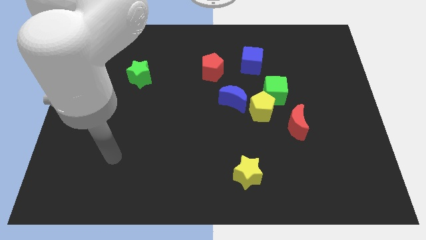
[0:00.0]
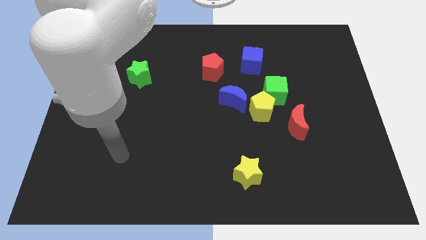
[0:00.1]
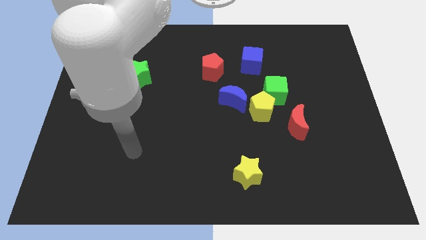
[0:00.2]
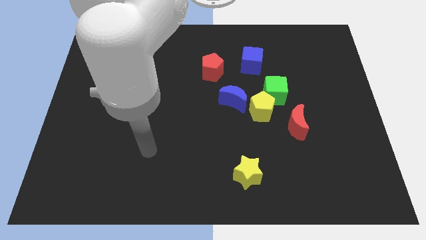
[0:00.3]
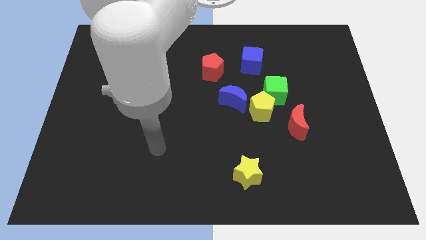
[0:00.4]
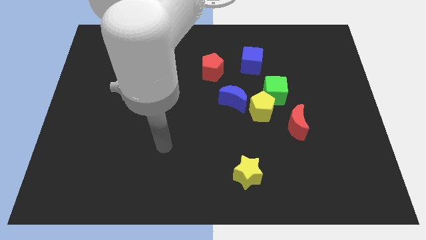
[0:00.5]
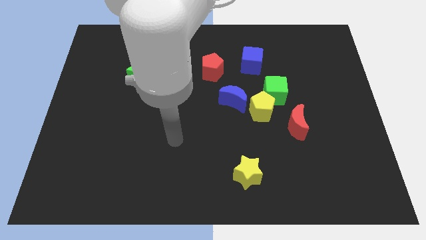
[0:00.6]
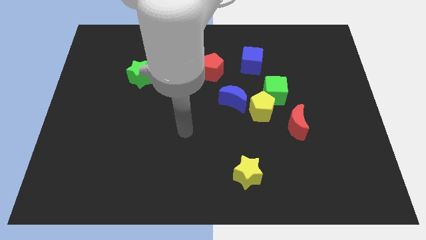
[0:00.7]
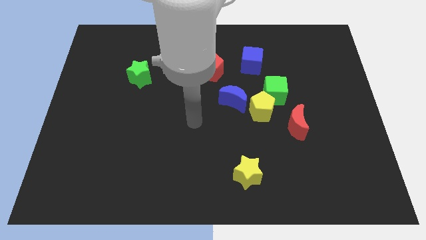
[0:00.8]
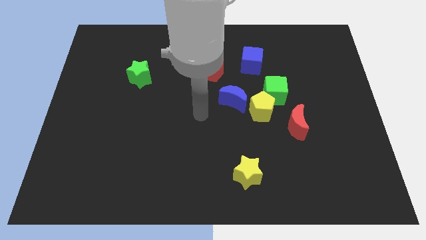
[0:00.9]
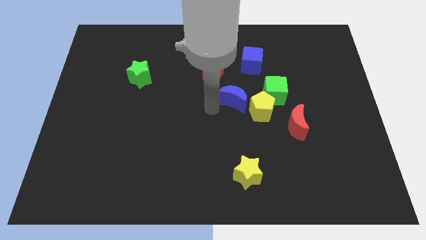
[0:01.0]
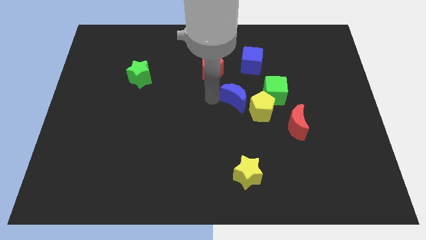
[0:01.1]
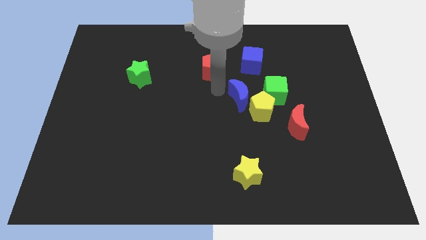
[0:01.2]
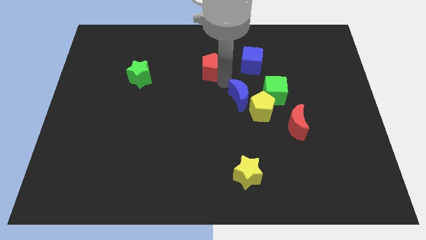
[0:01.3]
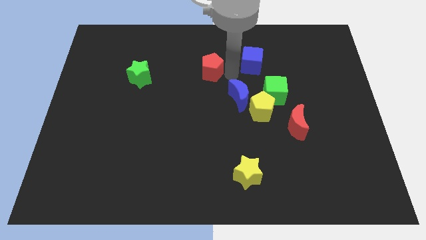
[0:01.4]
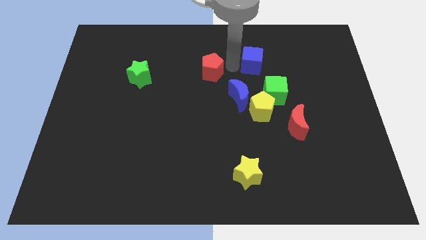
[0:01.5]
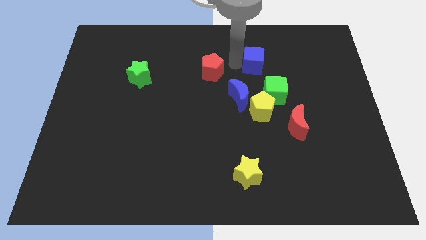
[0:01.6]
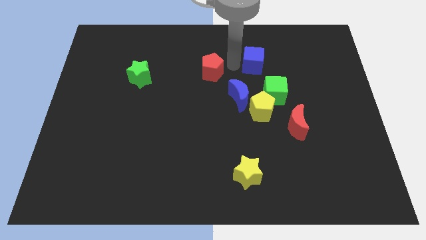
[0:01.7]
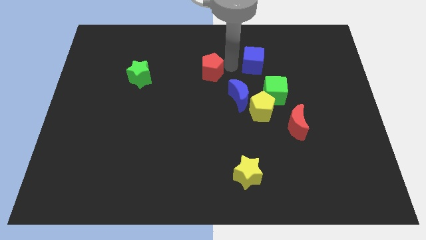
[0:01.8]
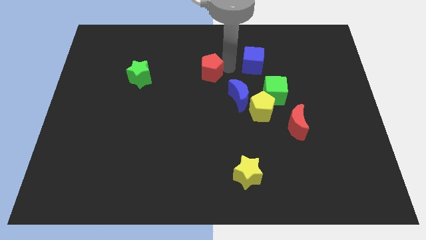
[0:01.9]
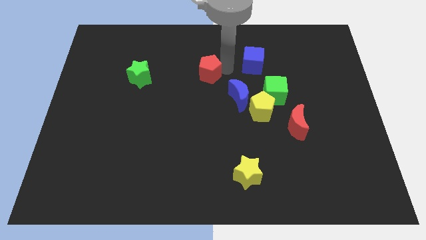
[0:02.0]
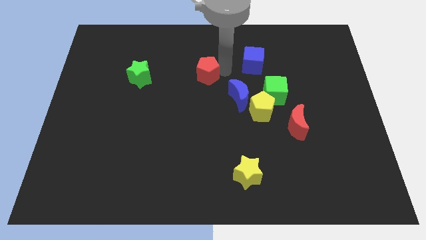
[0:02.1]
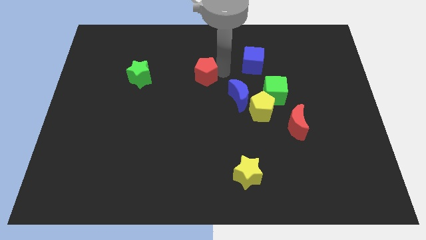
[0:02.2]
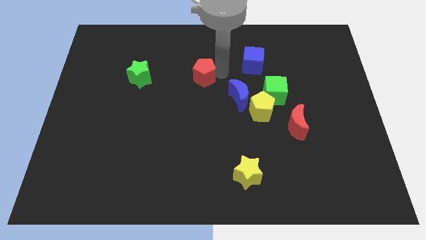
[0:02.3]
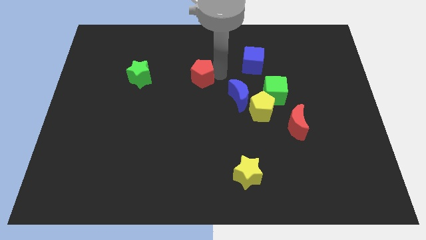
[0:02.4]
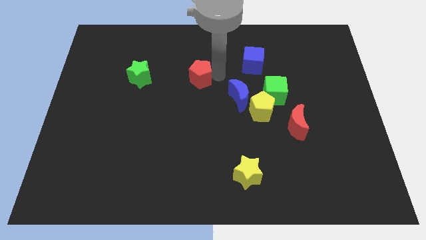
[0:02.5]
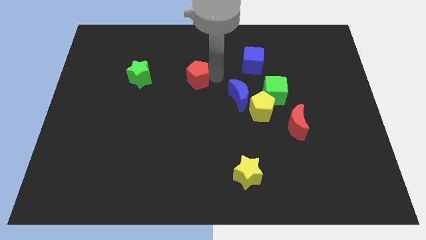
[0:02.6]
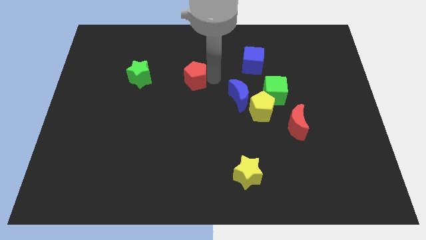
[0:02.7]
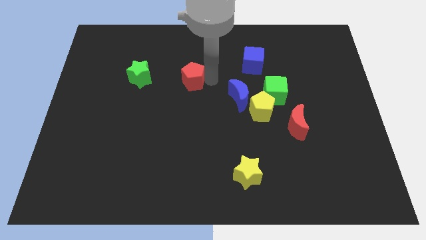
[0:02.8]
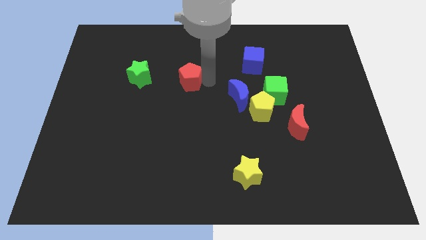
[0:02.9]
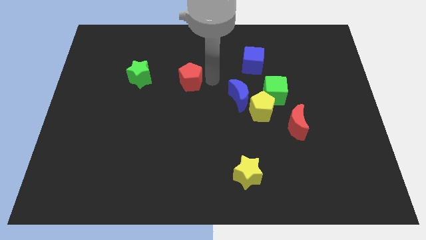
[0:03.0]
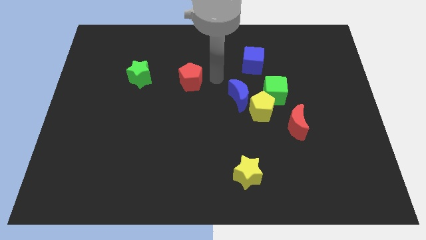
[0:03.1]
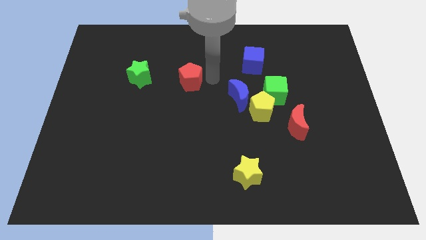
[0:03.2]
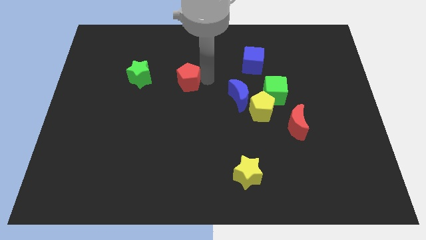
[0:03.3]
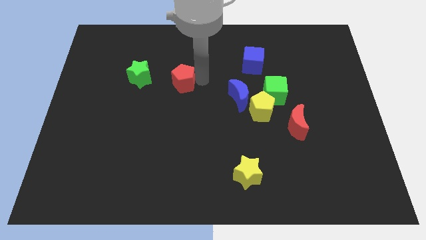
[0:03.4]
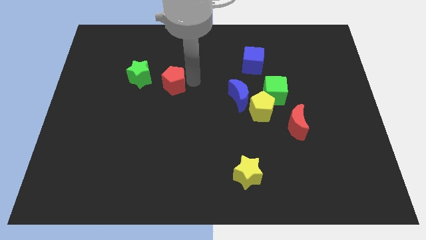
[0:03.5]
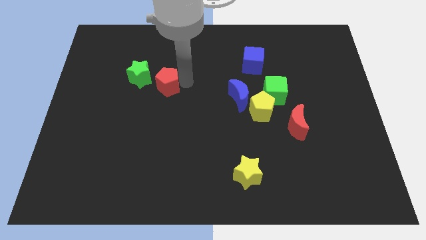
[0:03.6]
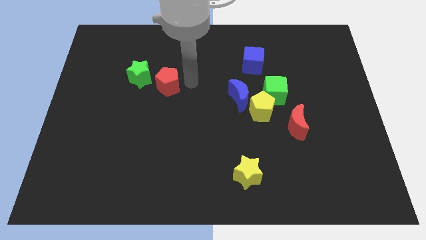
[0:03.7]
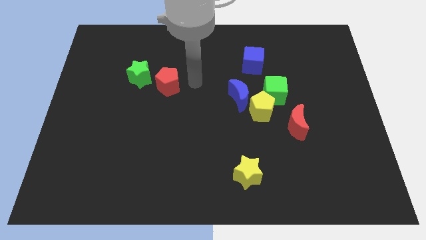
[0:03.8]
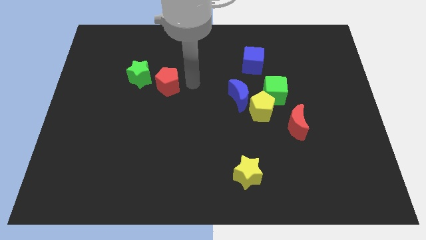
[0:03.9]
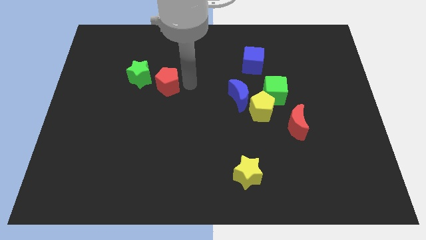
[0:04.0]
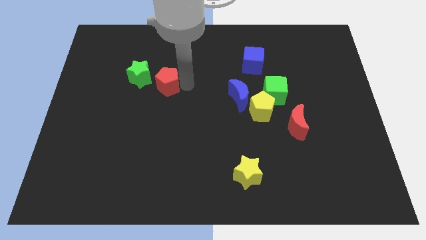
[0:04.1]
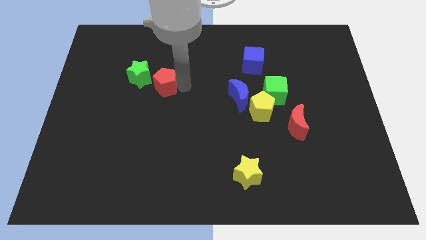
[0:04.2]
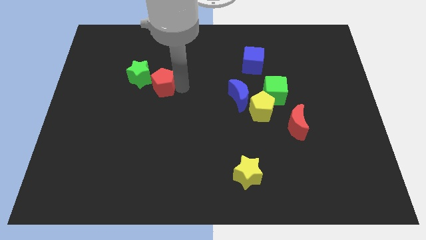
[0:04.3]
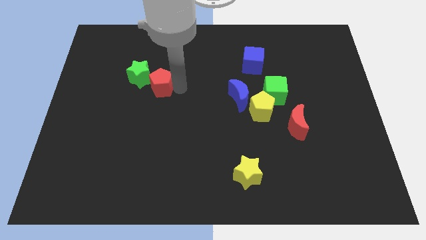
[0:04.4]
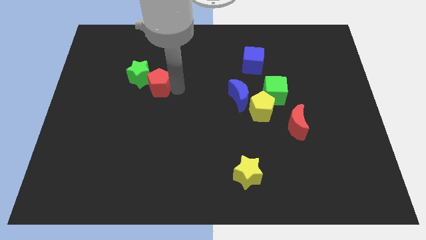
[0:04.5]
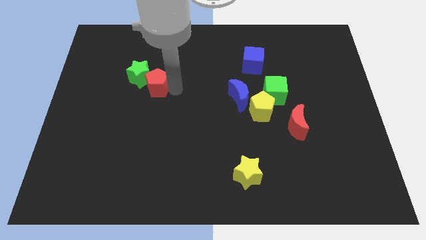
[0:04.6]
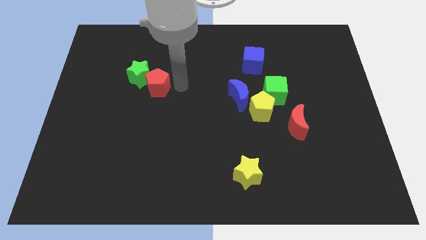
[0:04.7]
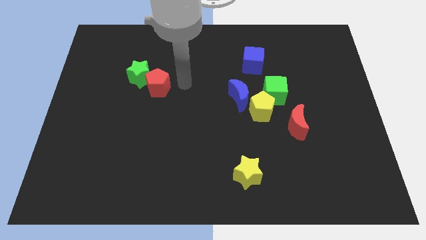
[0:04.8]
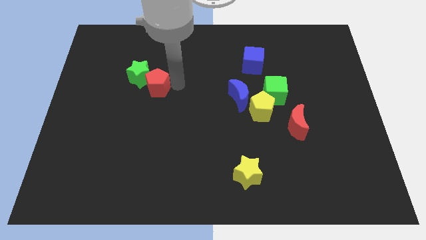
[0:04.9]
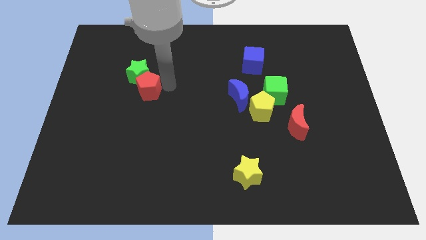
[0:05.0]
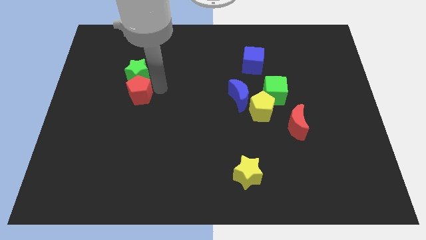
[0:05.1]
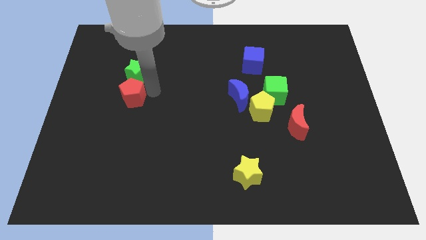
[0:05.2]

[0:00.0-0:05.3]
slide the red pentagon to the bottom left side of the green star

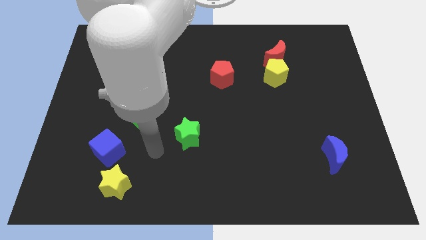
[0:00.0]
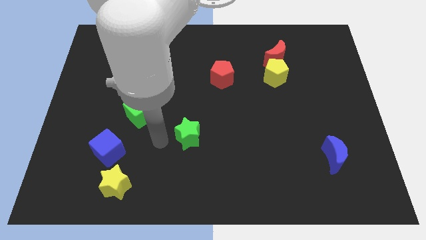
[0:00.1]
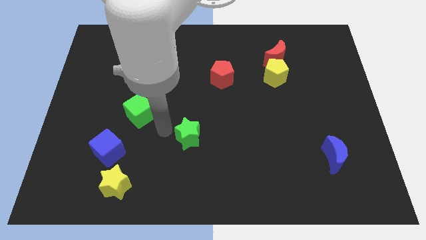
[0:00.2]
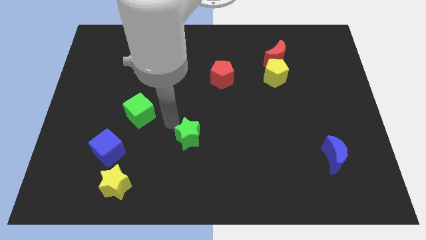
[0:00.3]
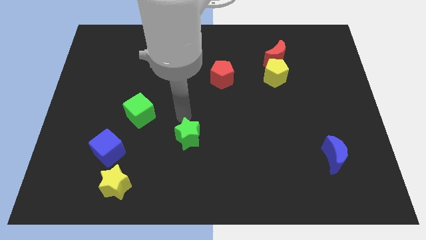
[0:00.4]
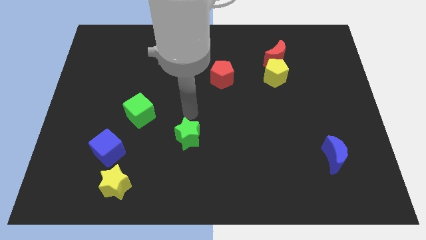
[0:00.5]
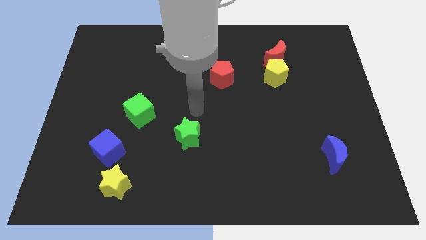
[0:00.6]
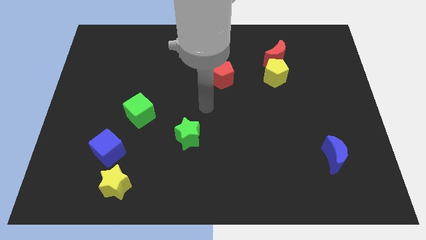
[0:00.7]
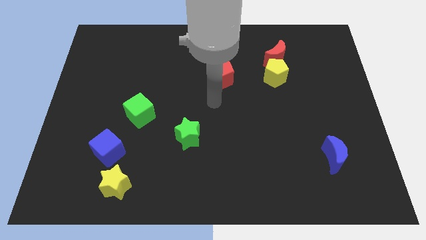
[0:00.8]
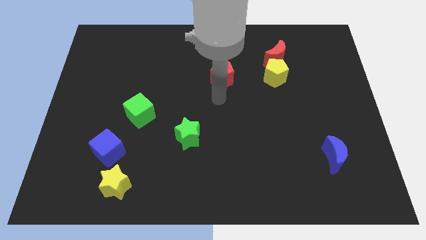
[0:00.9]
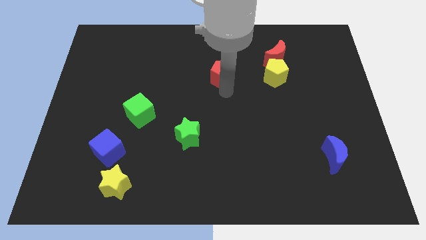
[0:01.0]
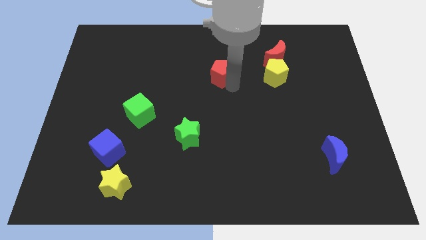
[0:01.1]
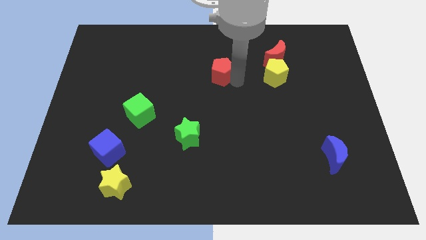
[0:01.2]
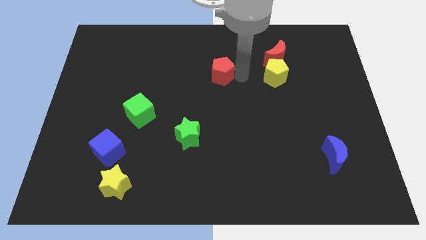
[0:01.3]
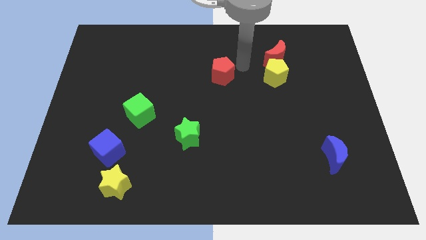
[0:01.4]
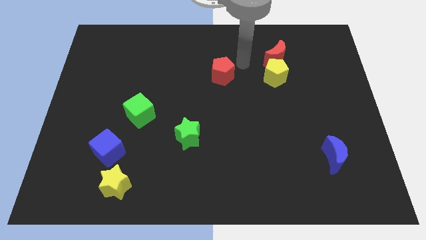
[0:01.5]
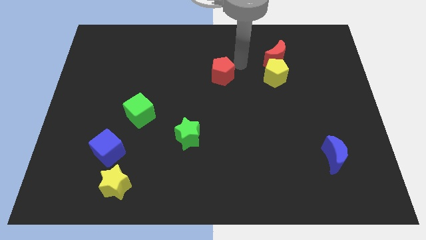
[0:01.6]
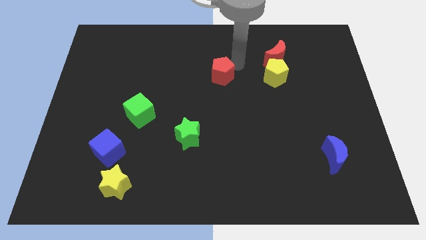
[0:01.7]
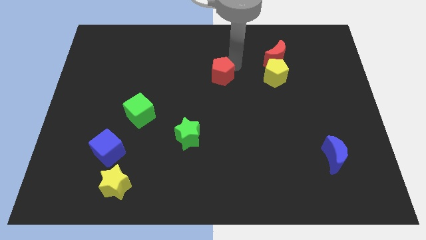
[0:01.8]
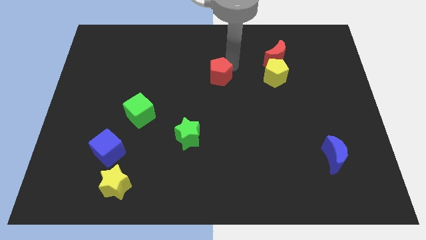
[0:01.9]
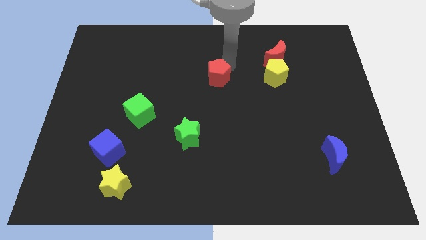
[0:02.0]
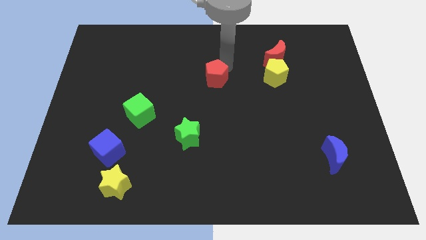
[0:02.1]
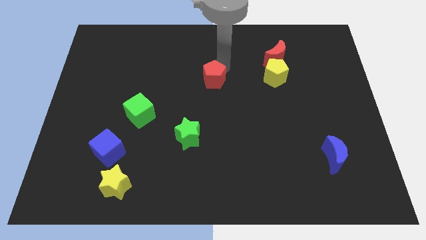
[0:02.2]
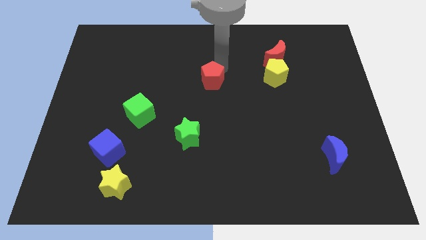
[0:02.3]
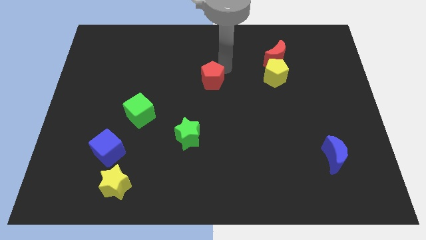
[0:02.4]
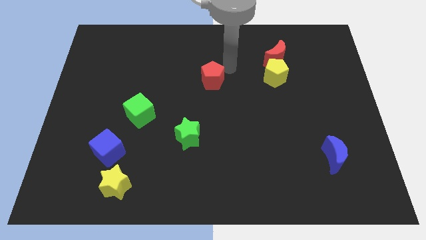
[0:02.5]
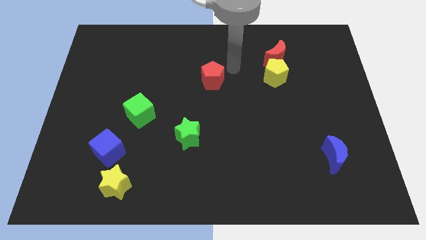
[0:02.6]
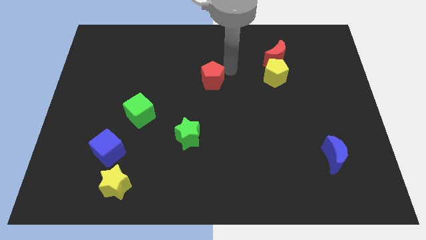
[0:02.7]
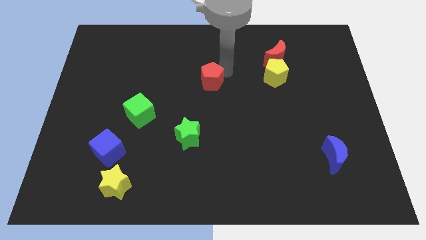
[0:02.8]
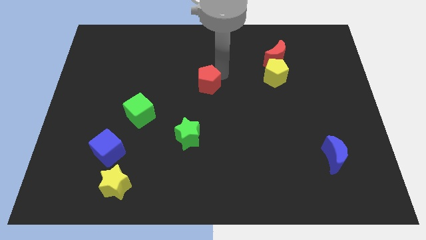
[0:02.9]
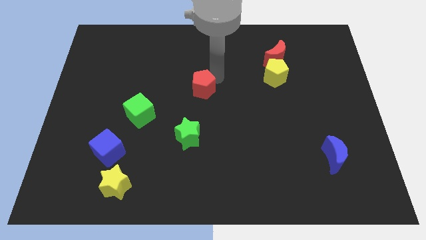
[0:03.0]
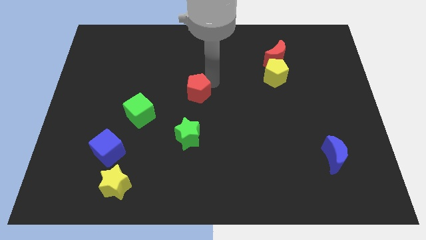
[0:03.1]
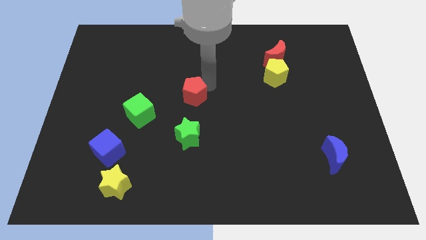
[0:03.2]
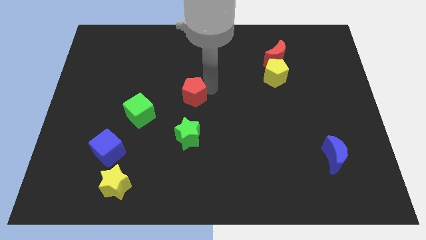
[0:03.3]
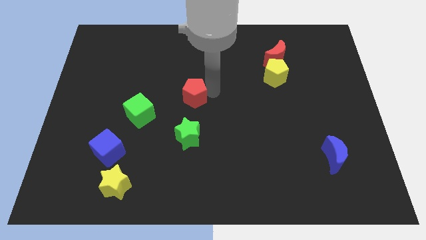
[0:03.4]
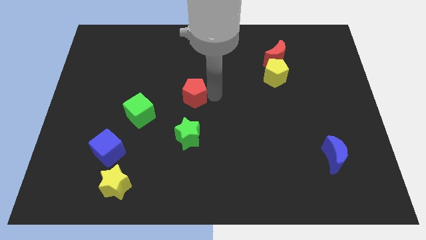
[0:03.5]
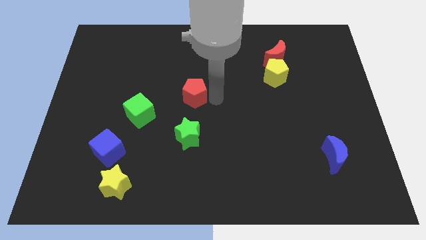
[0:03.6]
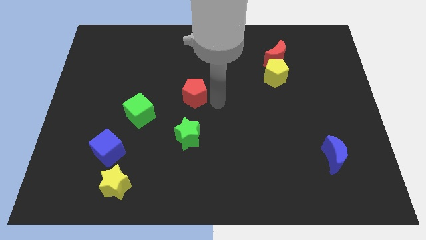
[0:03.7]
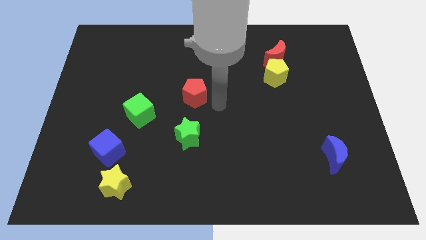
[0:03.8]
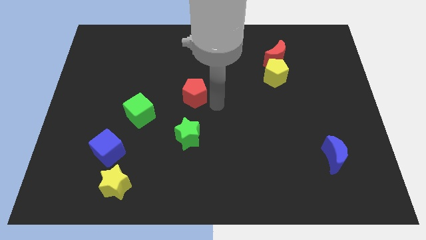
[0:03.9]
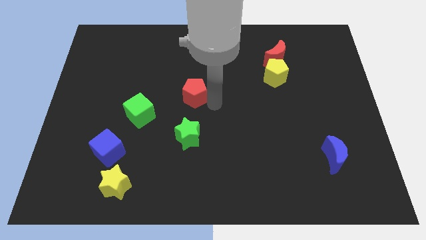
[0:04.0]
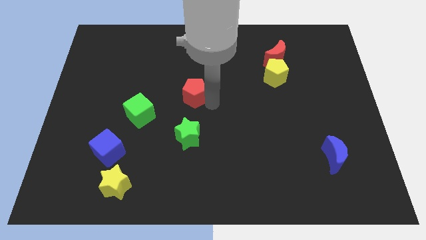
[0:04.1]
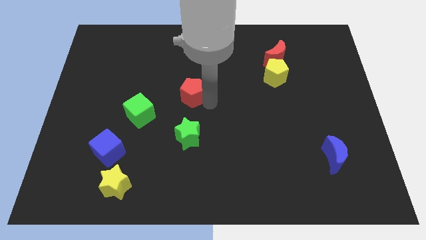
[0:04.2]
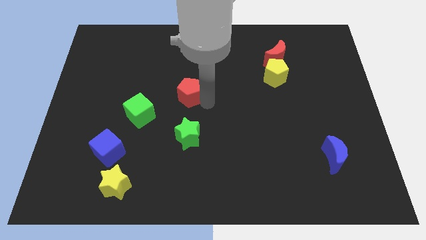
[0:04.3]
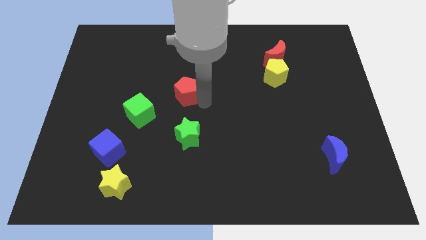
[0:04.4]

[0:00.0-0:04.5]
move the red pentagon to the top right of the green cube
